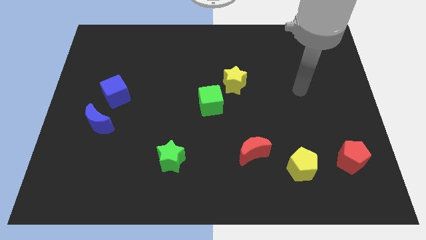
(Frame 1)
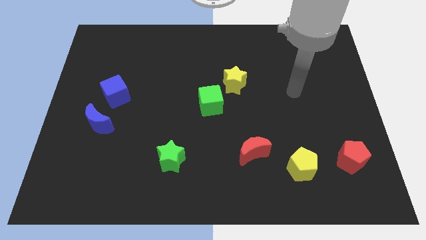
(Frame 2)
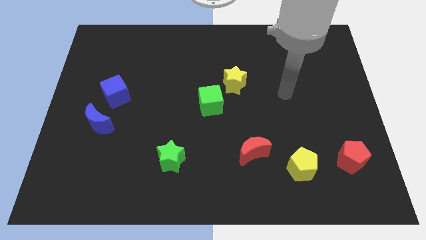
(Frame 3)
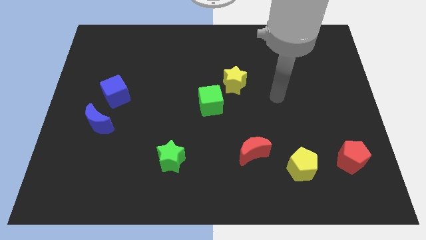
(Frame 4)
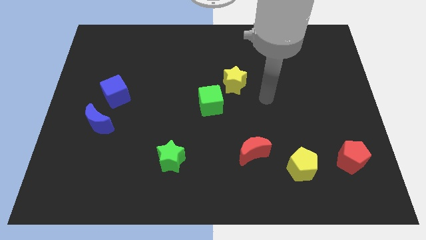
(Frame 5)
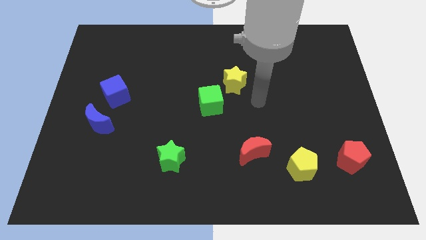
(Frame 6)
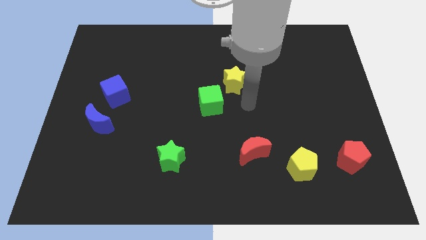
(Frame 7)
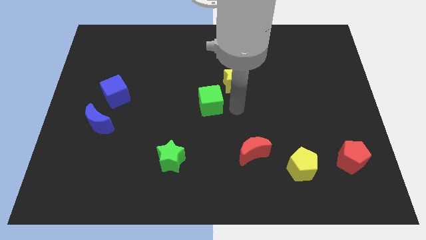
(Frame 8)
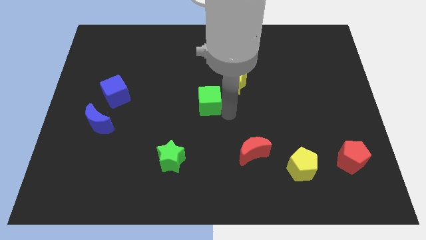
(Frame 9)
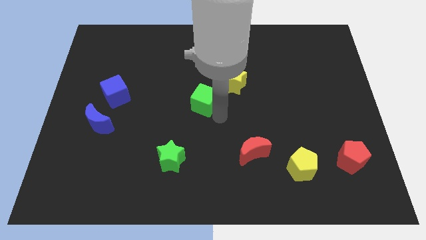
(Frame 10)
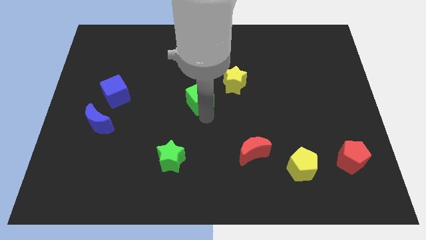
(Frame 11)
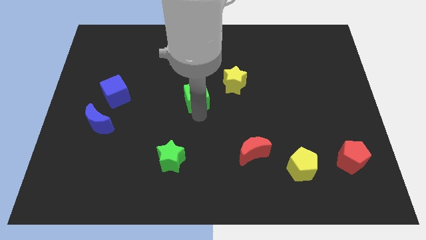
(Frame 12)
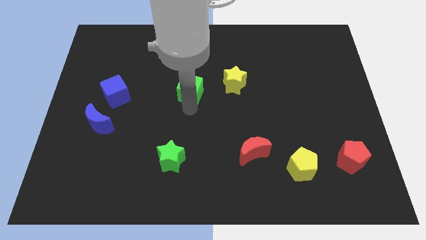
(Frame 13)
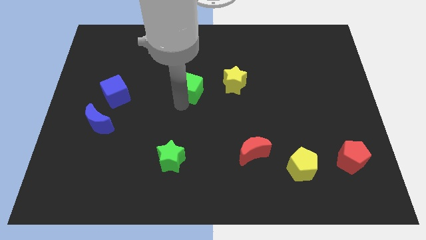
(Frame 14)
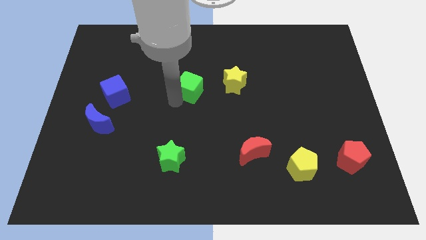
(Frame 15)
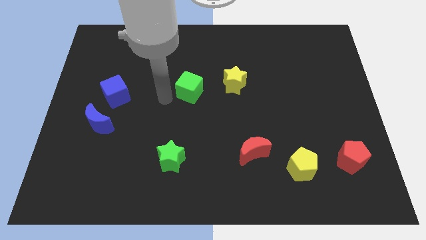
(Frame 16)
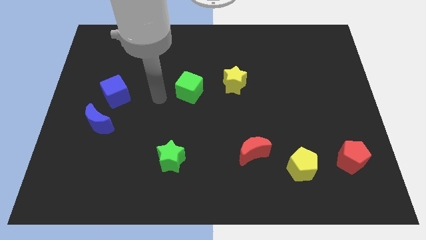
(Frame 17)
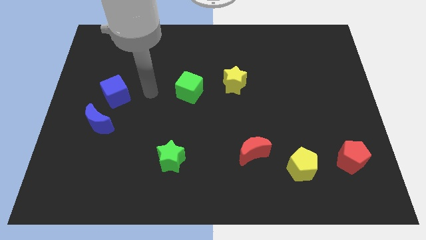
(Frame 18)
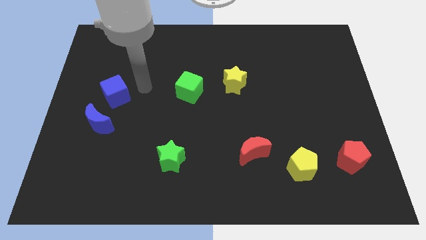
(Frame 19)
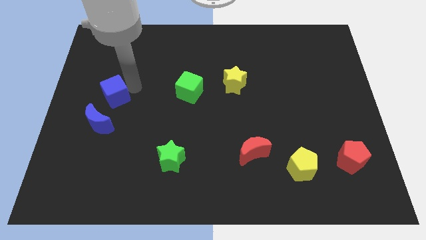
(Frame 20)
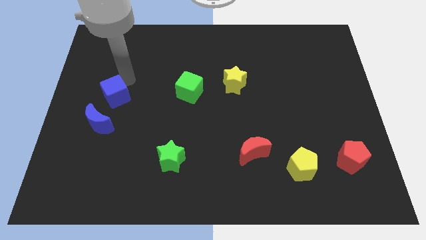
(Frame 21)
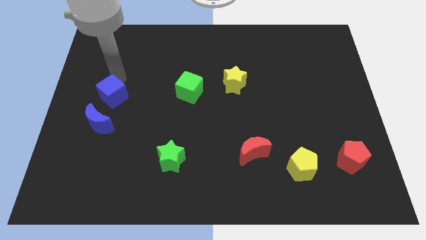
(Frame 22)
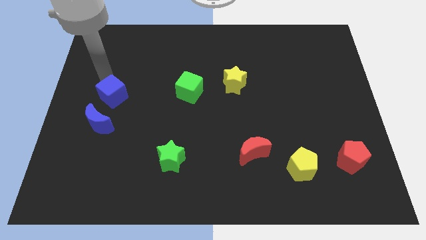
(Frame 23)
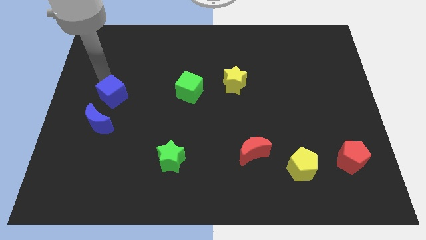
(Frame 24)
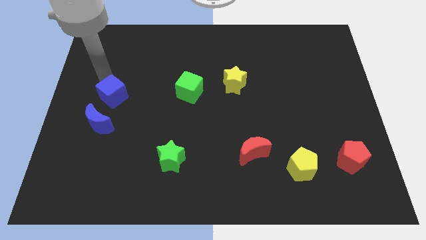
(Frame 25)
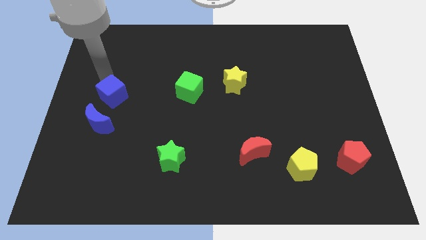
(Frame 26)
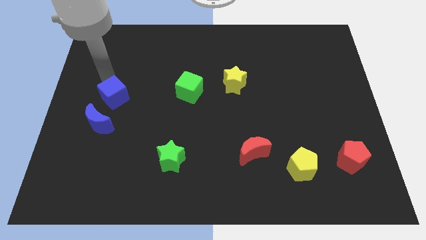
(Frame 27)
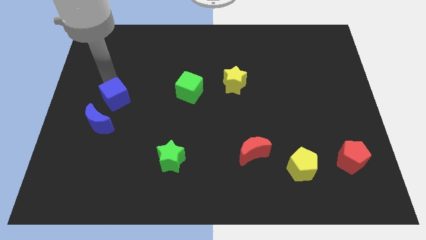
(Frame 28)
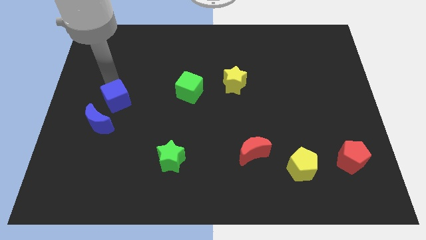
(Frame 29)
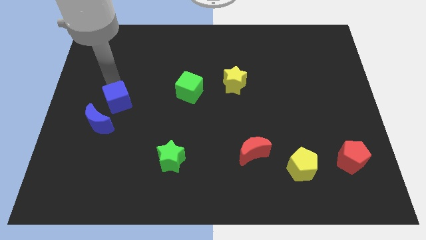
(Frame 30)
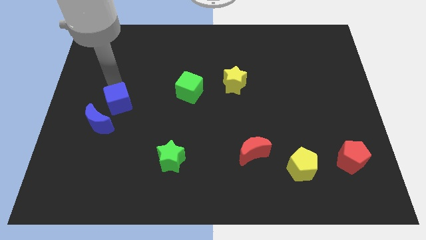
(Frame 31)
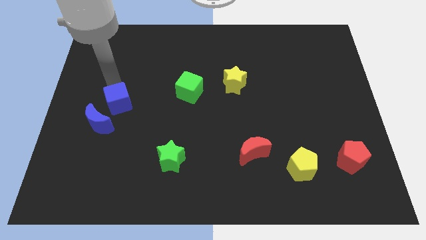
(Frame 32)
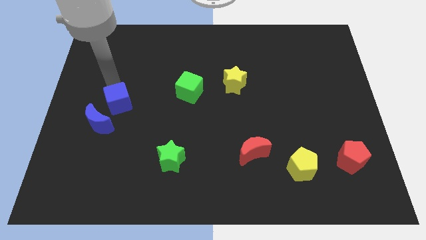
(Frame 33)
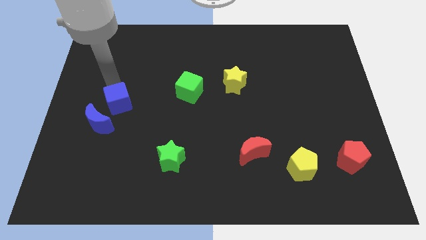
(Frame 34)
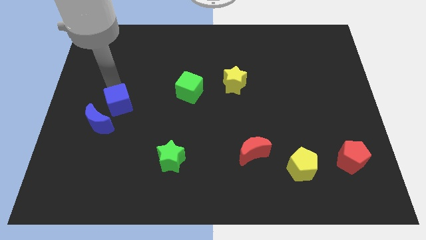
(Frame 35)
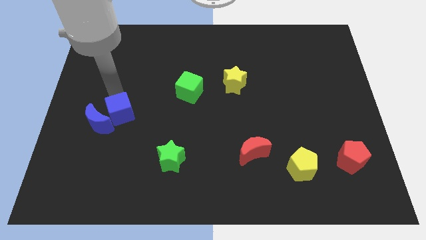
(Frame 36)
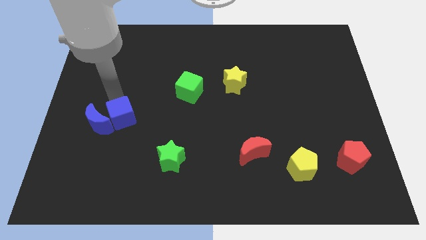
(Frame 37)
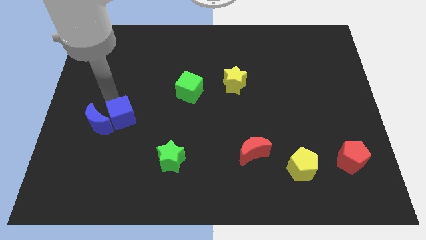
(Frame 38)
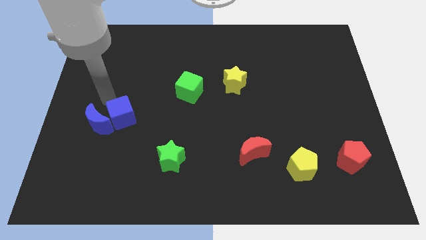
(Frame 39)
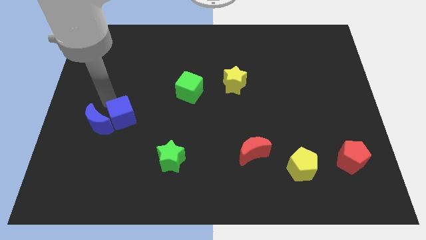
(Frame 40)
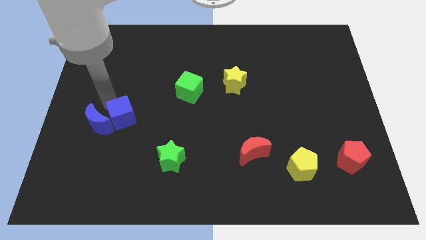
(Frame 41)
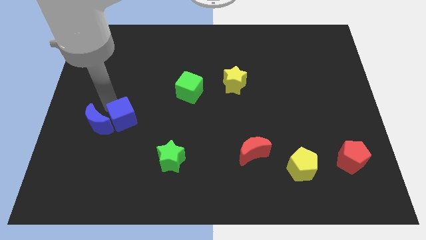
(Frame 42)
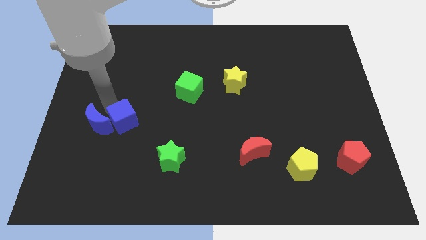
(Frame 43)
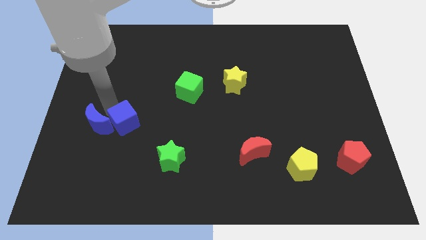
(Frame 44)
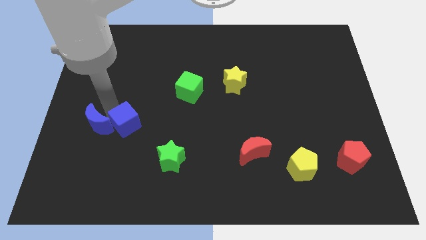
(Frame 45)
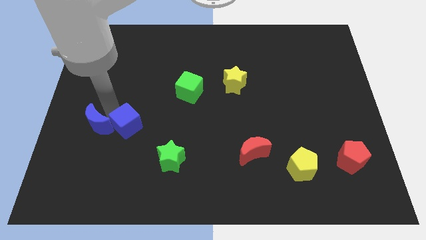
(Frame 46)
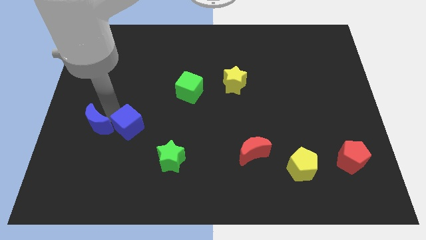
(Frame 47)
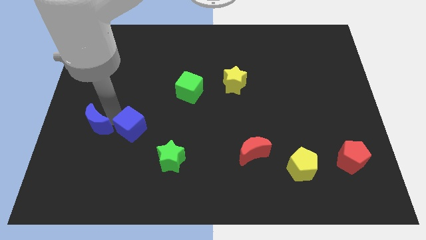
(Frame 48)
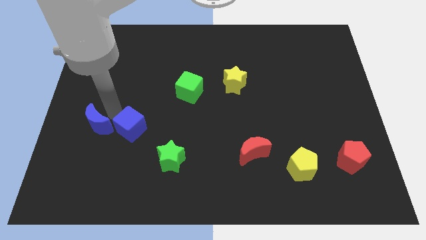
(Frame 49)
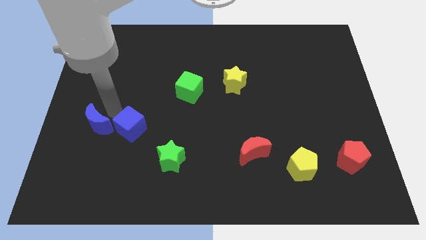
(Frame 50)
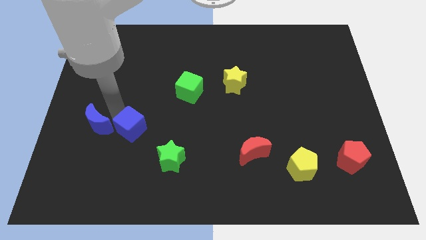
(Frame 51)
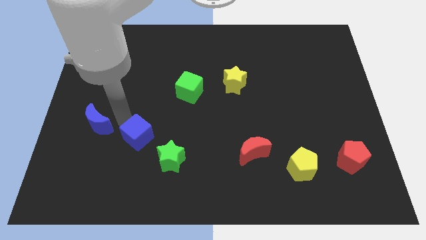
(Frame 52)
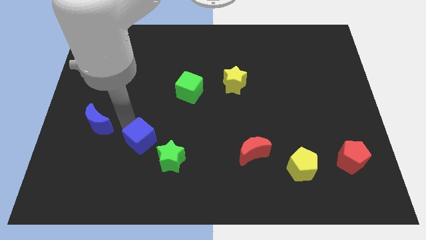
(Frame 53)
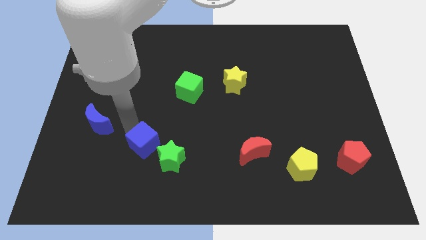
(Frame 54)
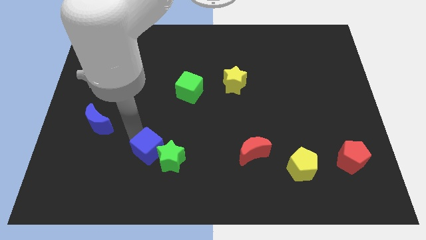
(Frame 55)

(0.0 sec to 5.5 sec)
slide the blue cube to the green star

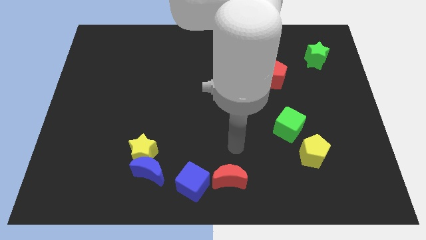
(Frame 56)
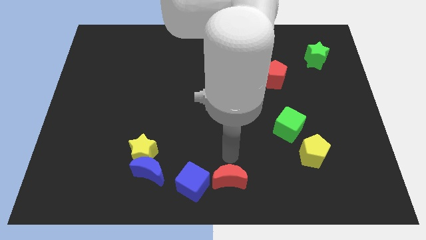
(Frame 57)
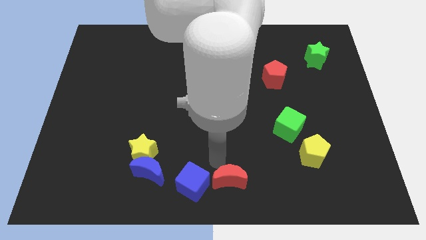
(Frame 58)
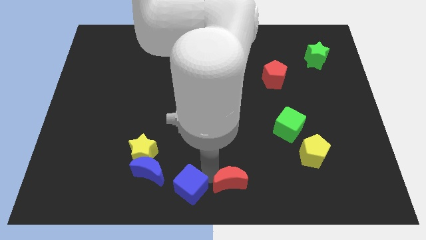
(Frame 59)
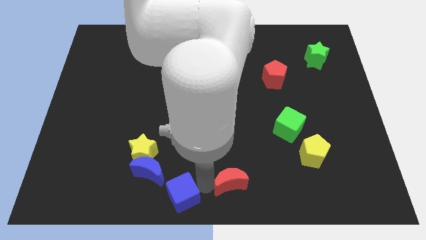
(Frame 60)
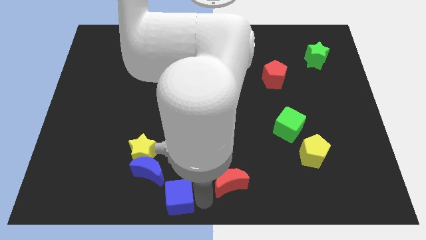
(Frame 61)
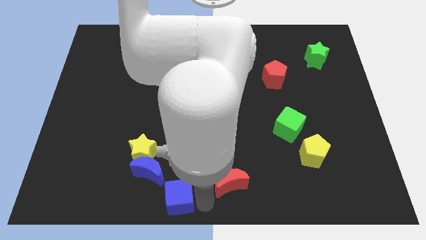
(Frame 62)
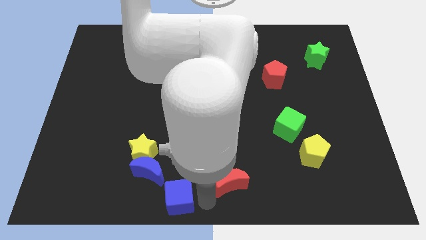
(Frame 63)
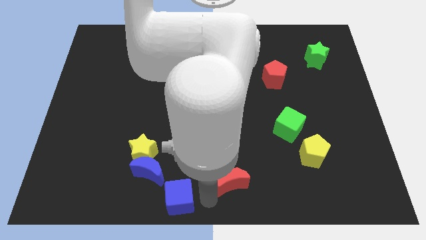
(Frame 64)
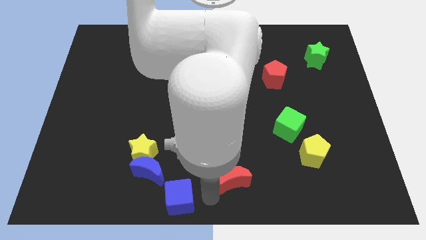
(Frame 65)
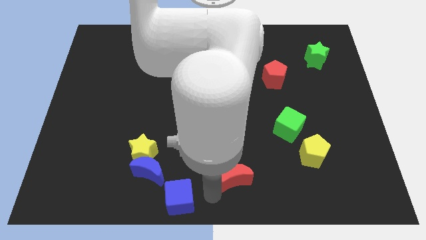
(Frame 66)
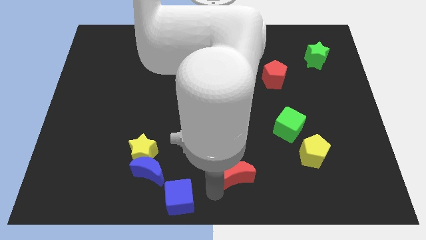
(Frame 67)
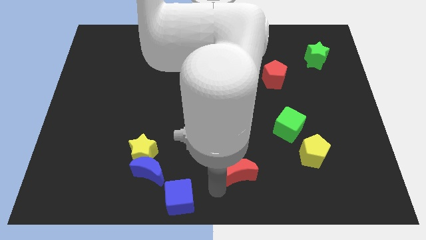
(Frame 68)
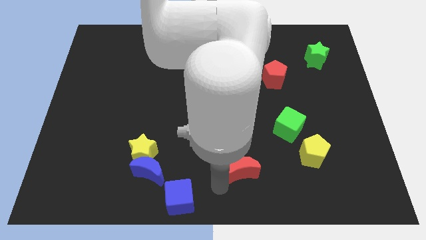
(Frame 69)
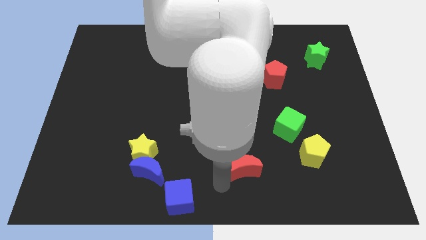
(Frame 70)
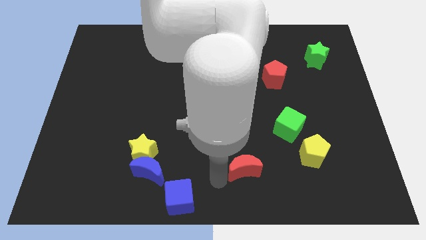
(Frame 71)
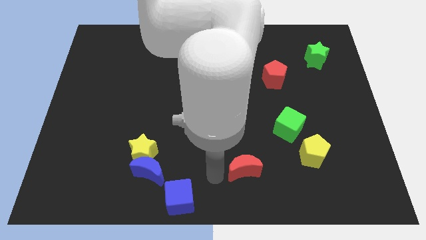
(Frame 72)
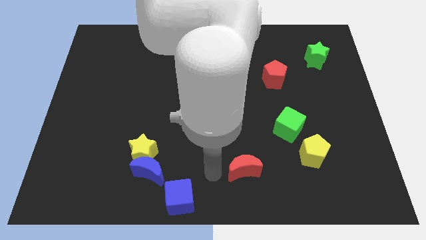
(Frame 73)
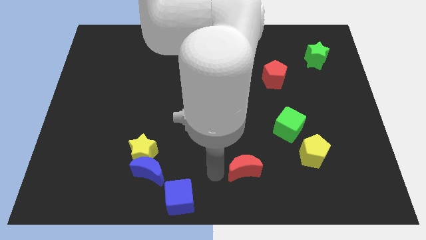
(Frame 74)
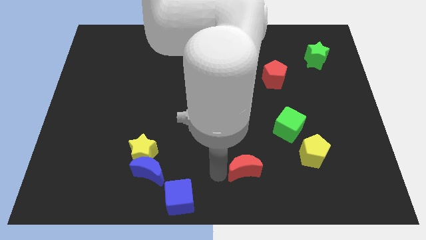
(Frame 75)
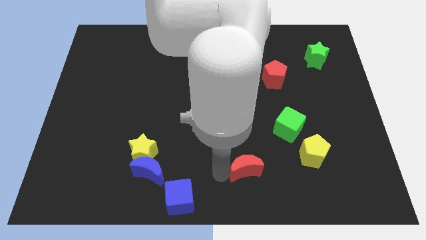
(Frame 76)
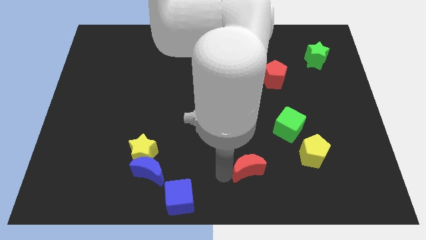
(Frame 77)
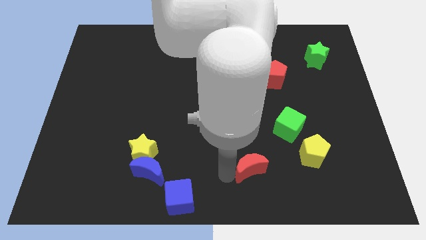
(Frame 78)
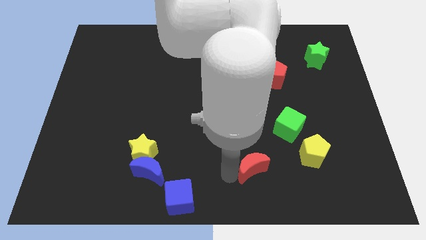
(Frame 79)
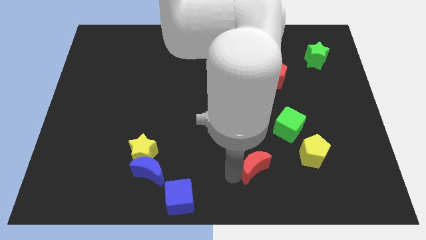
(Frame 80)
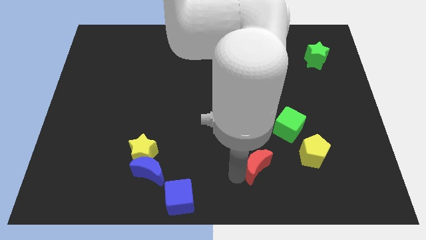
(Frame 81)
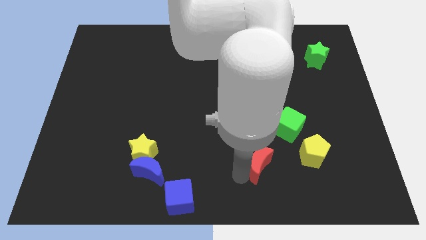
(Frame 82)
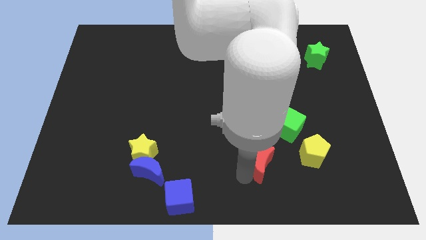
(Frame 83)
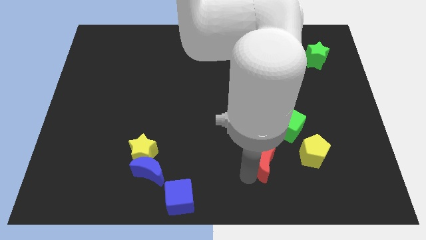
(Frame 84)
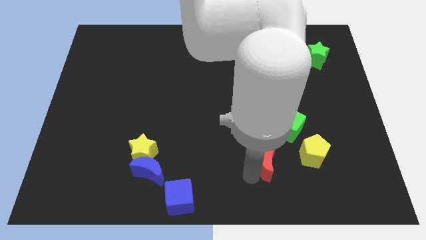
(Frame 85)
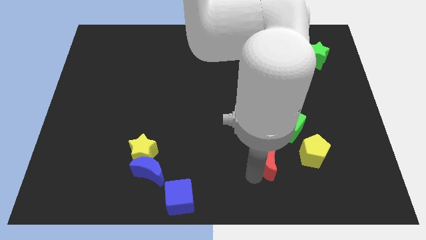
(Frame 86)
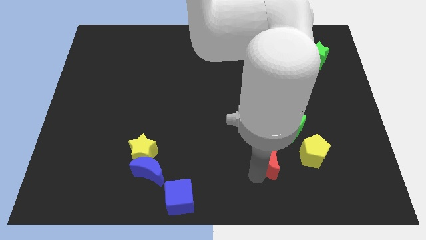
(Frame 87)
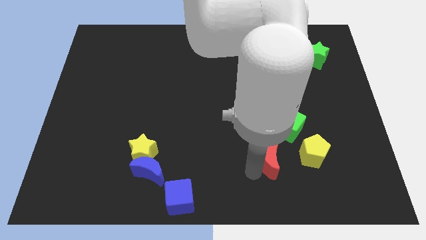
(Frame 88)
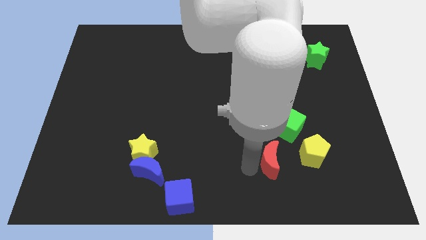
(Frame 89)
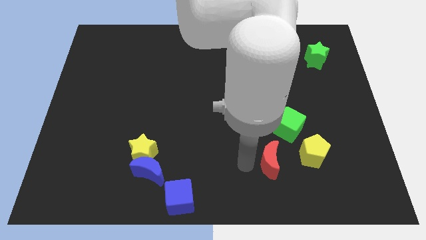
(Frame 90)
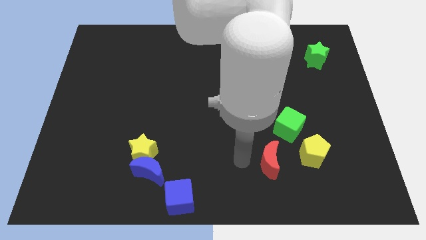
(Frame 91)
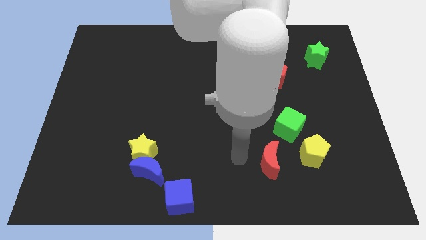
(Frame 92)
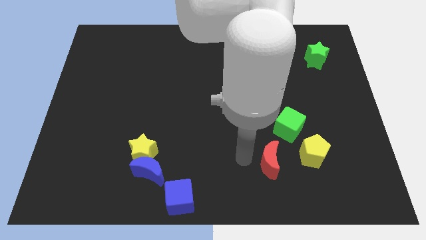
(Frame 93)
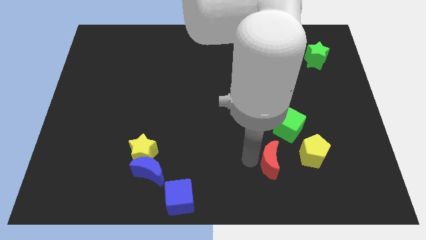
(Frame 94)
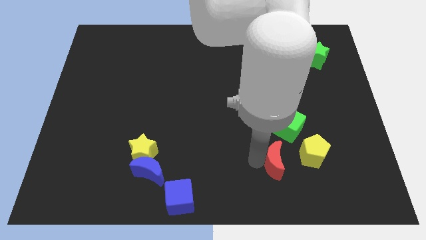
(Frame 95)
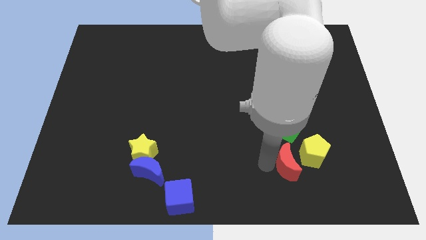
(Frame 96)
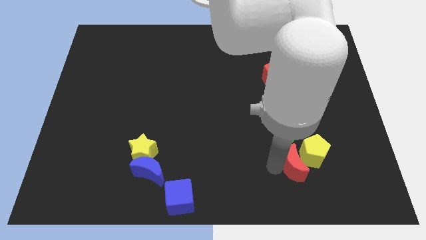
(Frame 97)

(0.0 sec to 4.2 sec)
push the red moon towards the yellow pentagon
